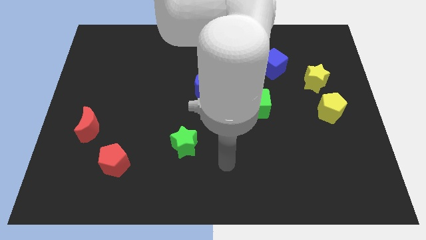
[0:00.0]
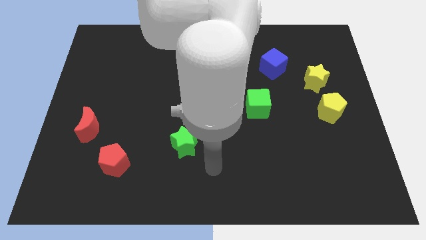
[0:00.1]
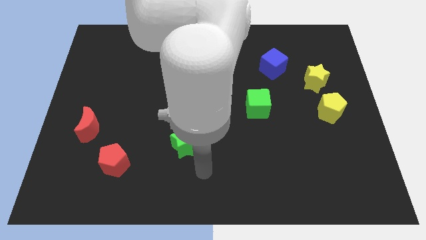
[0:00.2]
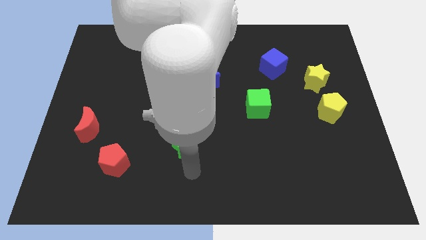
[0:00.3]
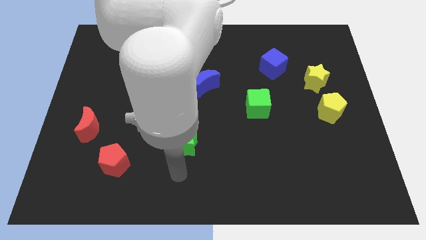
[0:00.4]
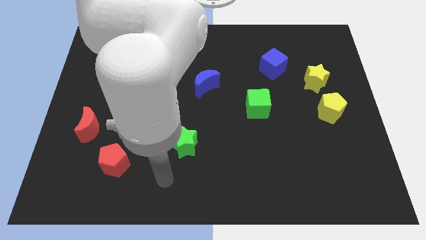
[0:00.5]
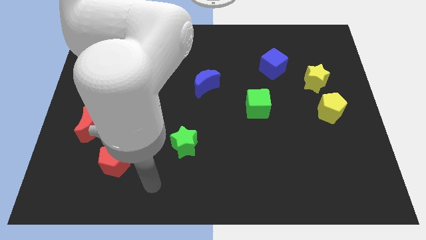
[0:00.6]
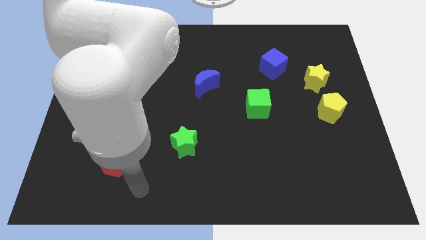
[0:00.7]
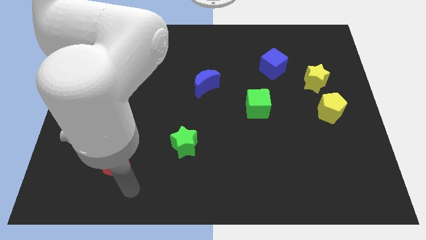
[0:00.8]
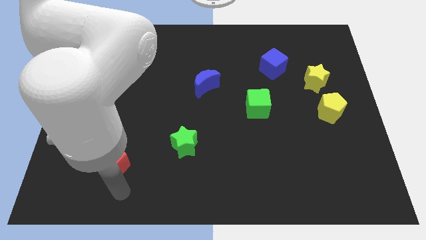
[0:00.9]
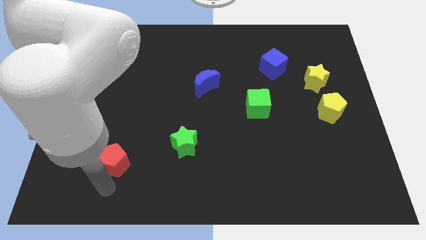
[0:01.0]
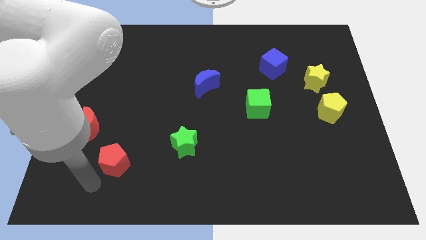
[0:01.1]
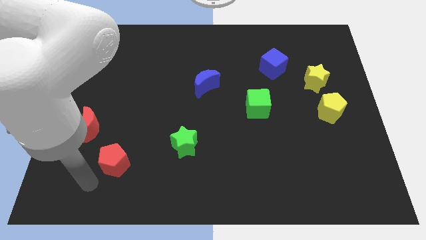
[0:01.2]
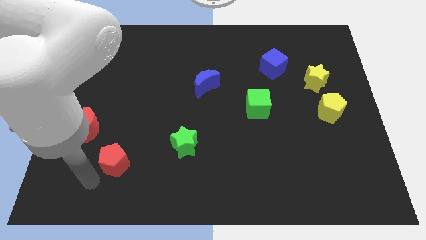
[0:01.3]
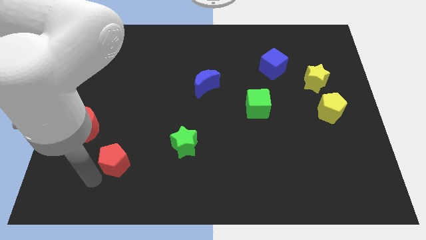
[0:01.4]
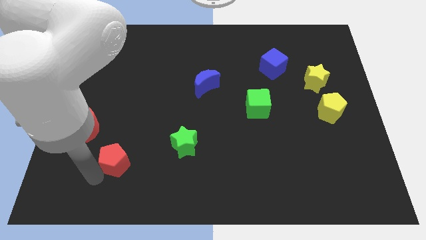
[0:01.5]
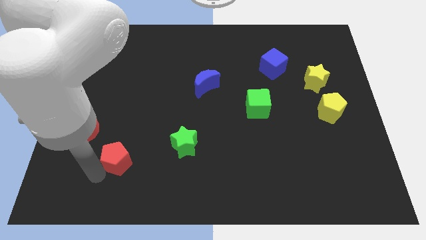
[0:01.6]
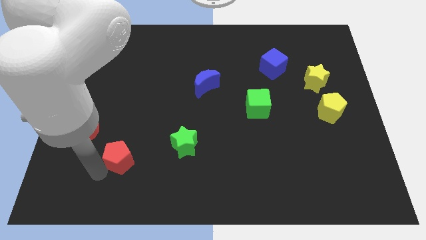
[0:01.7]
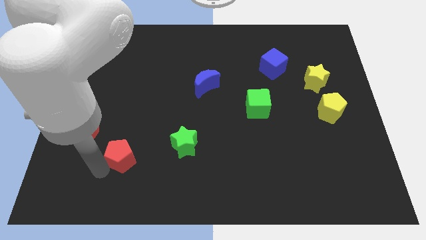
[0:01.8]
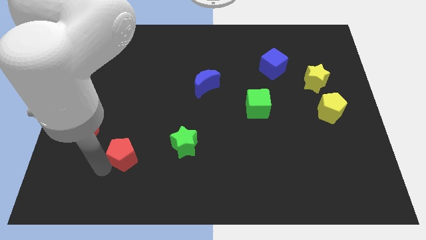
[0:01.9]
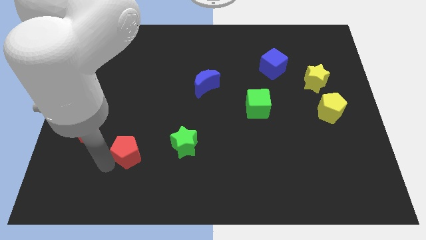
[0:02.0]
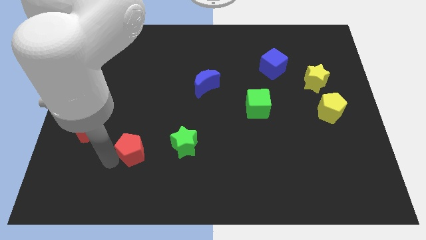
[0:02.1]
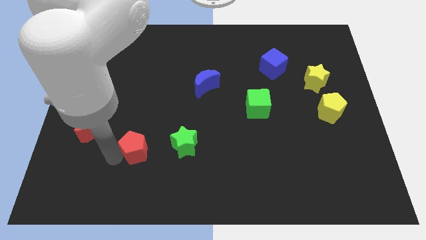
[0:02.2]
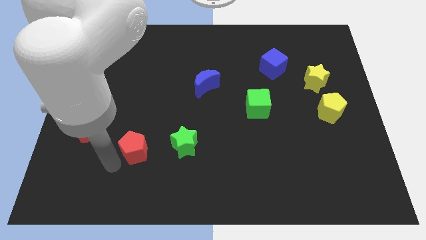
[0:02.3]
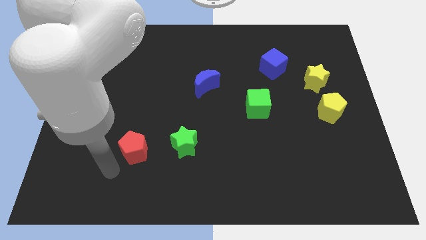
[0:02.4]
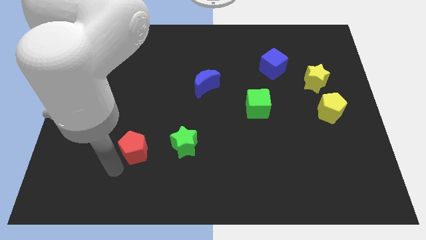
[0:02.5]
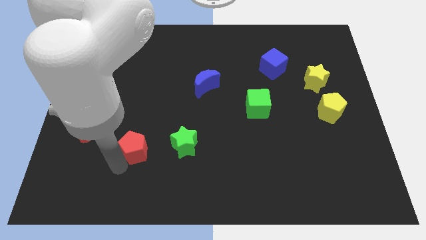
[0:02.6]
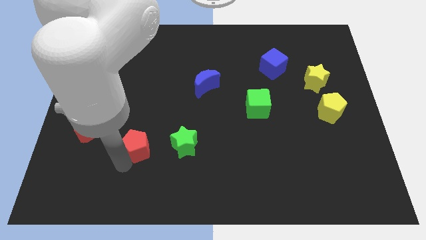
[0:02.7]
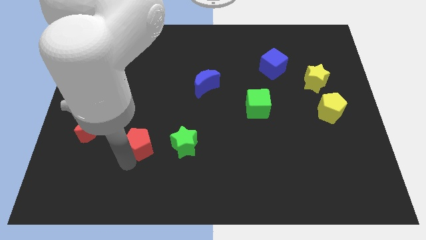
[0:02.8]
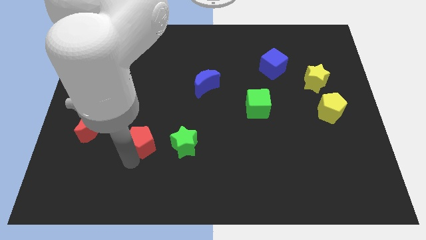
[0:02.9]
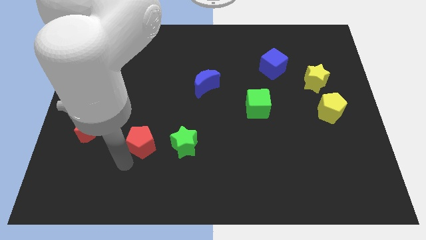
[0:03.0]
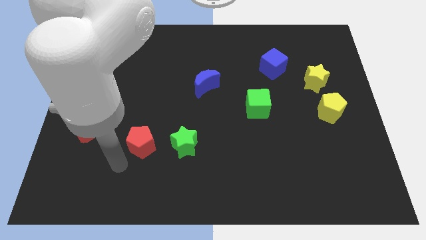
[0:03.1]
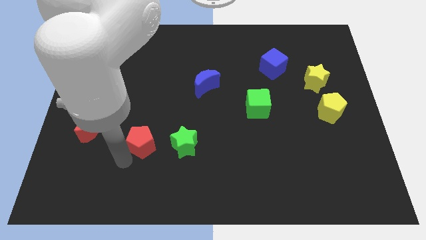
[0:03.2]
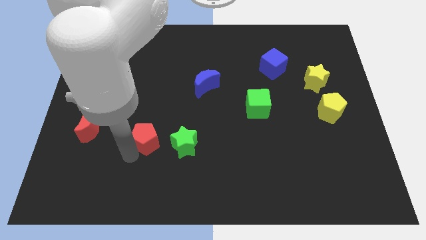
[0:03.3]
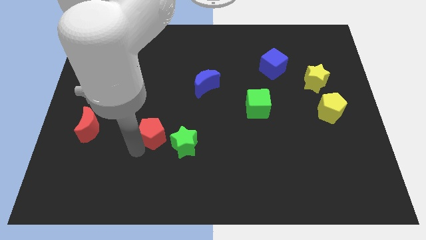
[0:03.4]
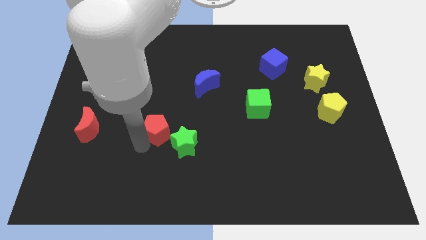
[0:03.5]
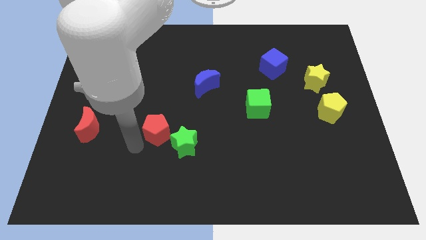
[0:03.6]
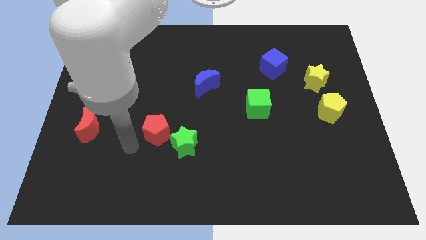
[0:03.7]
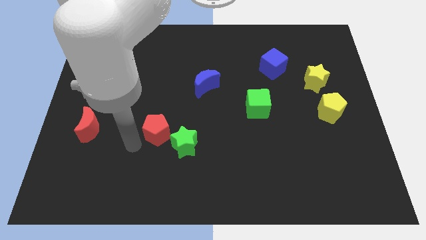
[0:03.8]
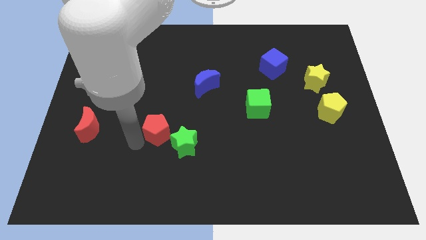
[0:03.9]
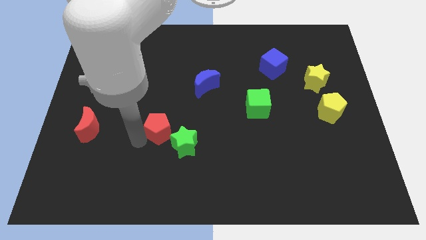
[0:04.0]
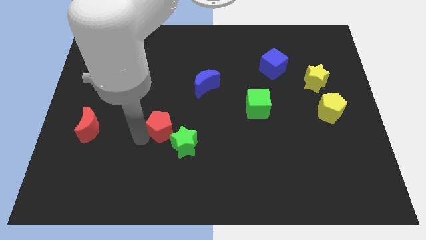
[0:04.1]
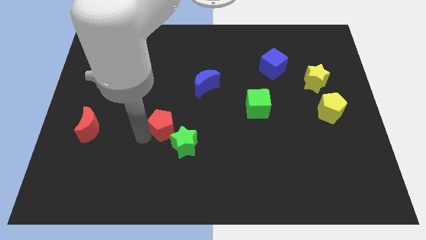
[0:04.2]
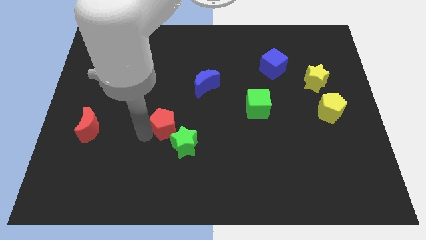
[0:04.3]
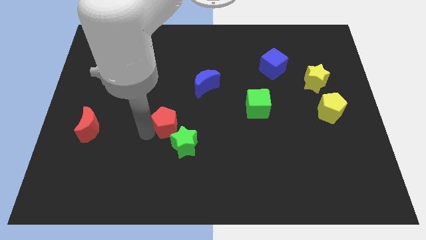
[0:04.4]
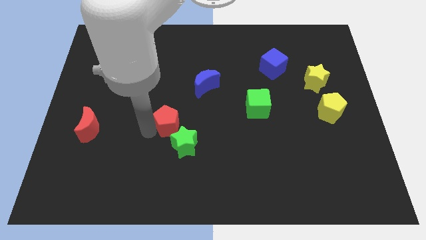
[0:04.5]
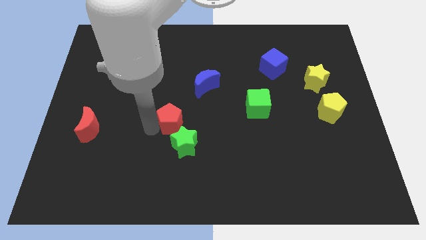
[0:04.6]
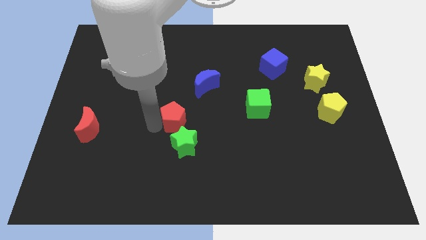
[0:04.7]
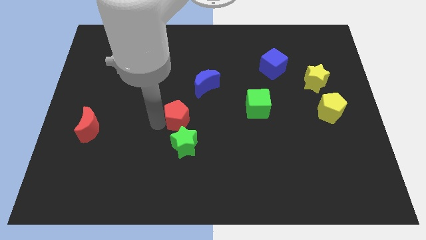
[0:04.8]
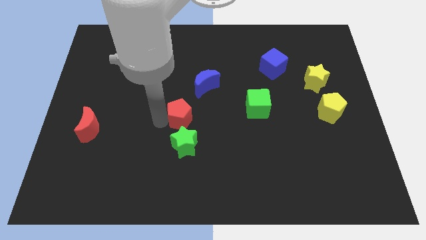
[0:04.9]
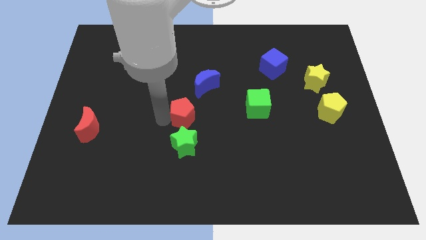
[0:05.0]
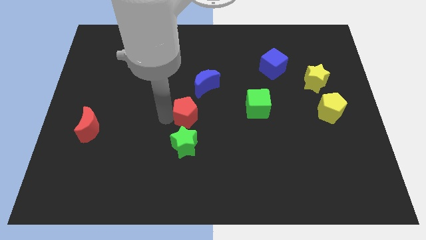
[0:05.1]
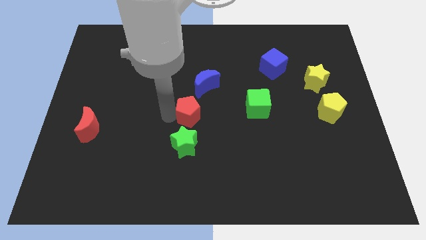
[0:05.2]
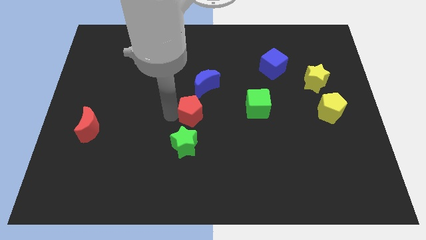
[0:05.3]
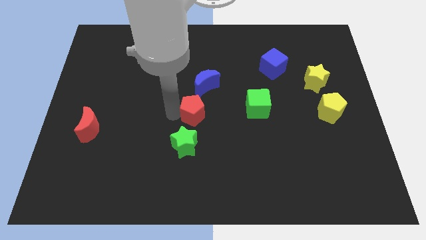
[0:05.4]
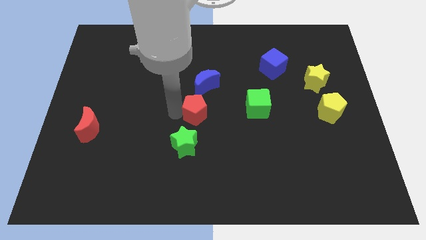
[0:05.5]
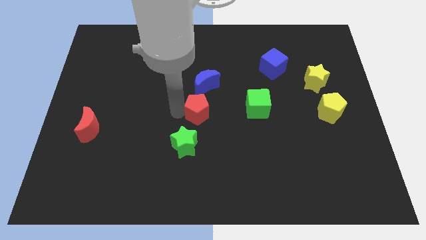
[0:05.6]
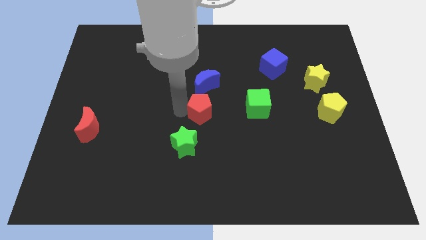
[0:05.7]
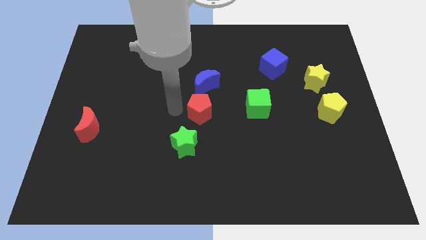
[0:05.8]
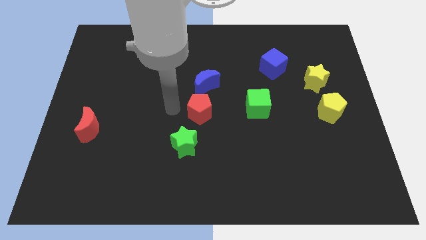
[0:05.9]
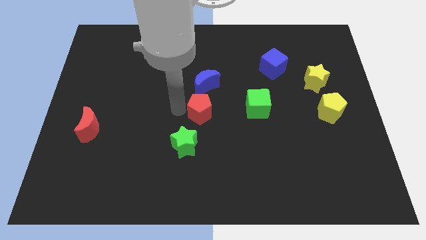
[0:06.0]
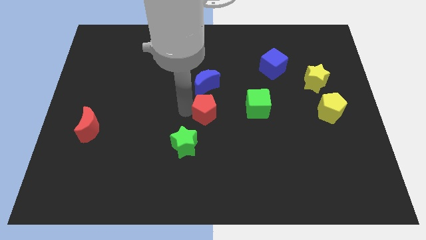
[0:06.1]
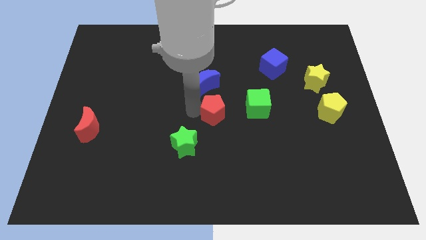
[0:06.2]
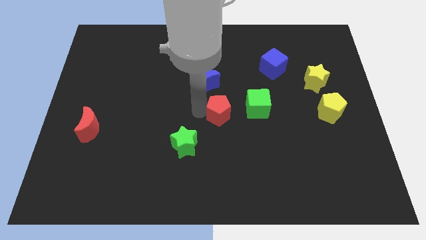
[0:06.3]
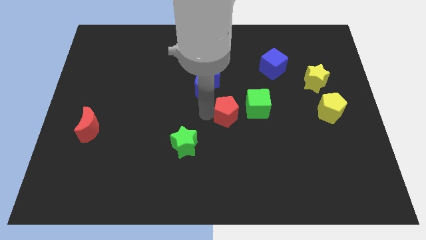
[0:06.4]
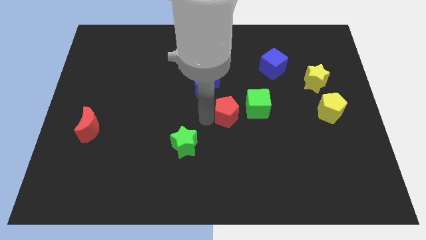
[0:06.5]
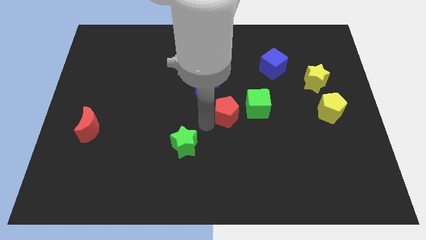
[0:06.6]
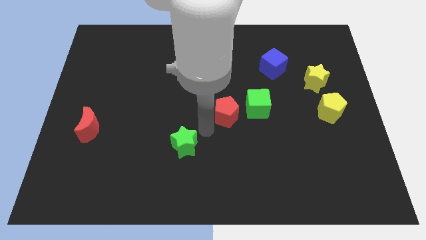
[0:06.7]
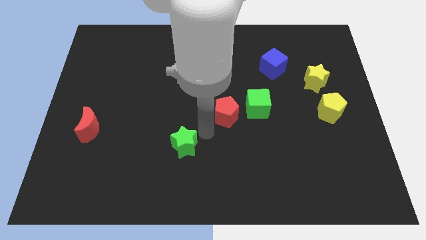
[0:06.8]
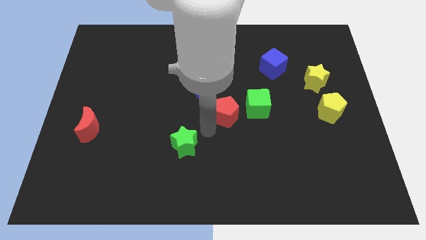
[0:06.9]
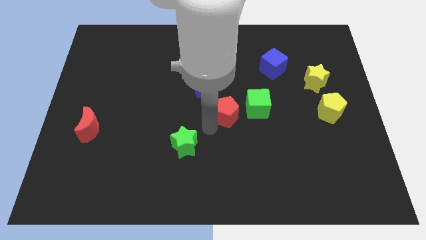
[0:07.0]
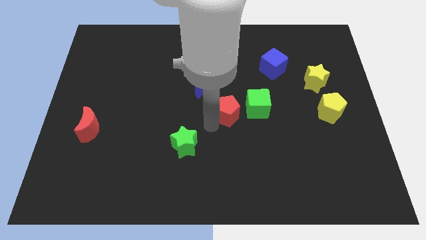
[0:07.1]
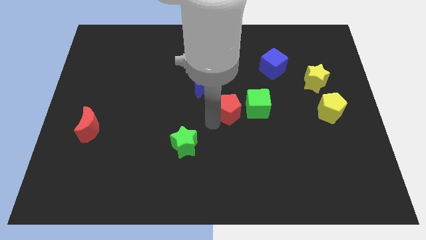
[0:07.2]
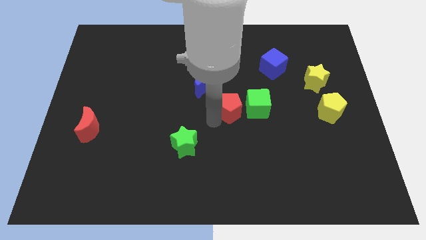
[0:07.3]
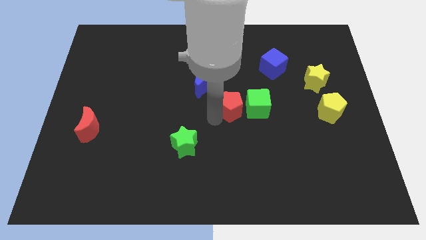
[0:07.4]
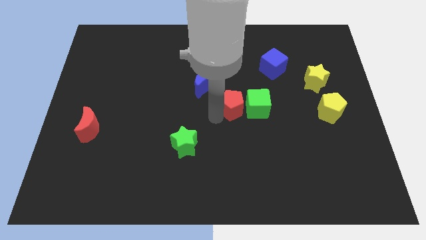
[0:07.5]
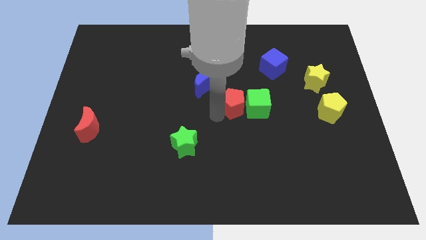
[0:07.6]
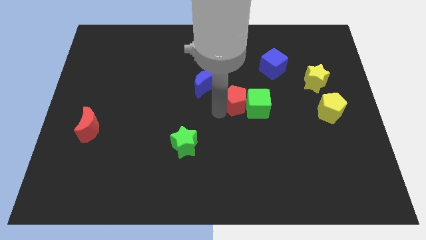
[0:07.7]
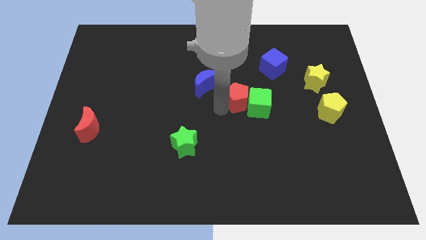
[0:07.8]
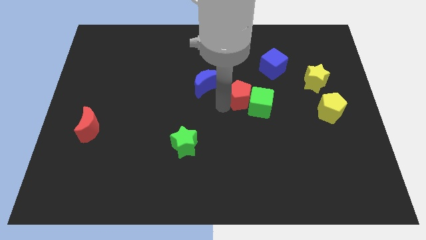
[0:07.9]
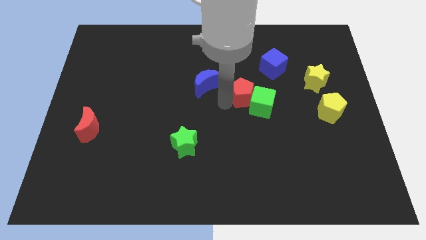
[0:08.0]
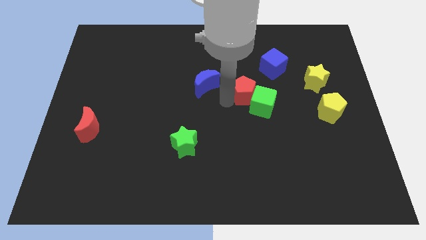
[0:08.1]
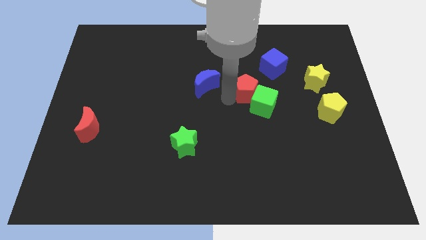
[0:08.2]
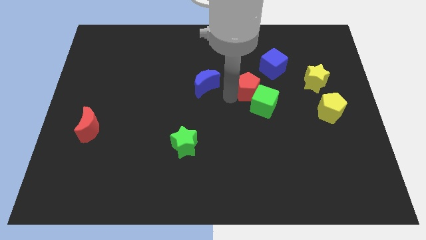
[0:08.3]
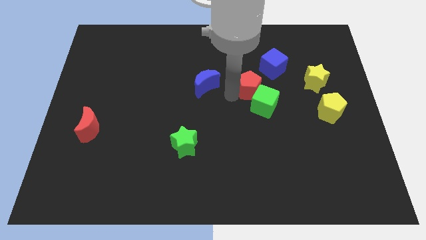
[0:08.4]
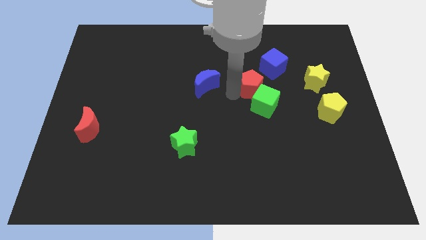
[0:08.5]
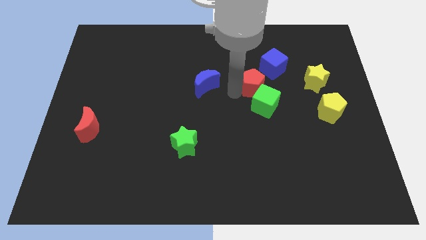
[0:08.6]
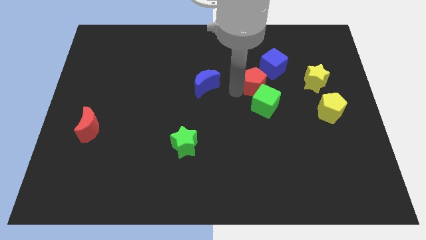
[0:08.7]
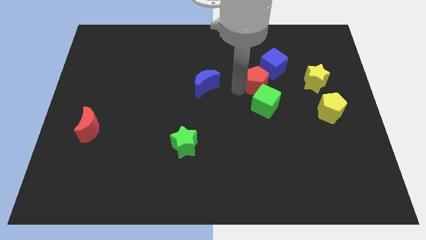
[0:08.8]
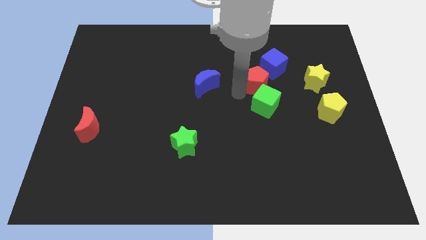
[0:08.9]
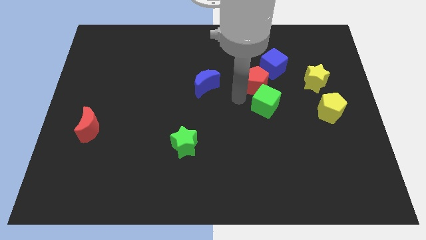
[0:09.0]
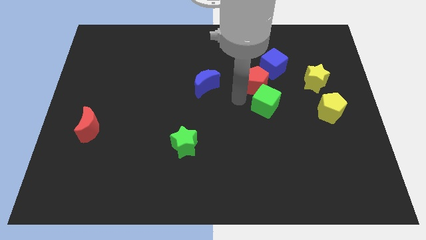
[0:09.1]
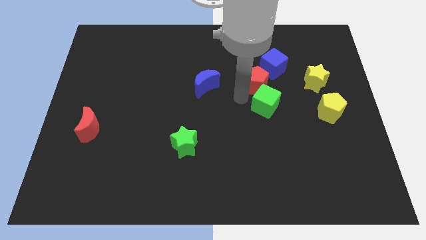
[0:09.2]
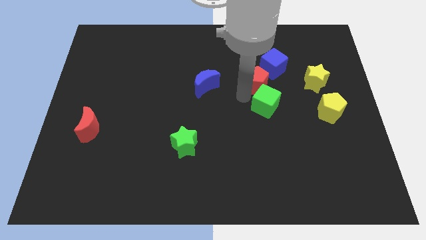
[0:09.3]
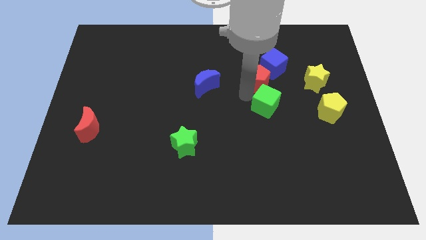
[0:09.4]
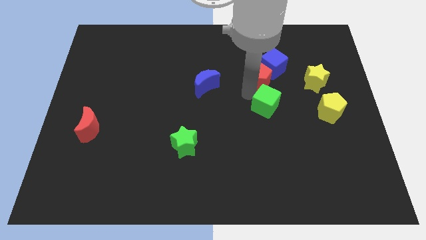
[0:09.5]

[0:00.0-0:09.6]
put the red pentagon close to the blue cube
